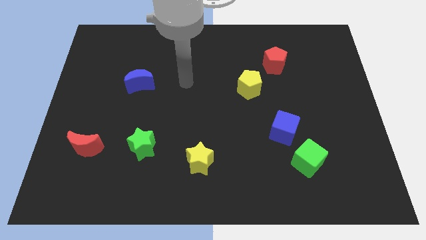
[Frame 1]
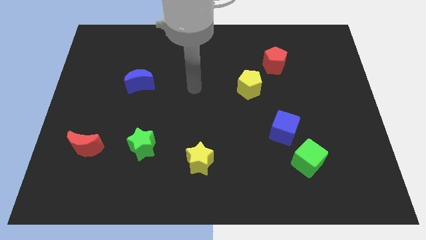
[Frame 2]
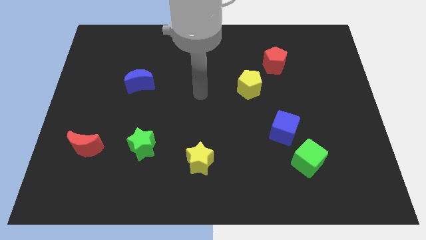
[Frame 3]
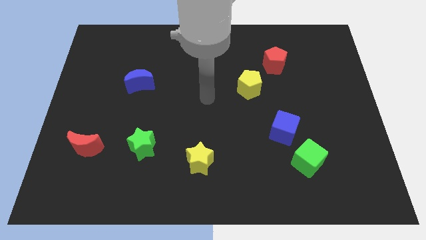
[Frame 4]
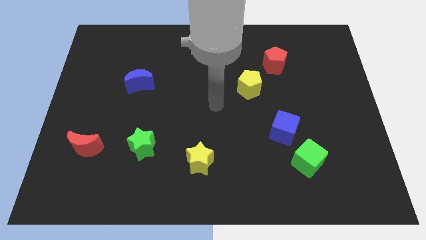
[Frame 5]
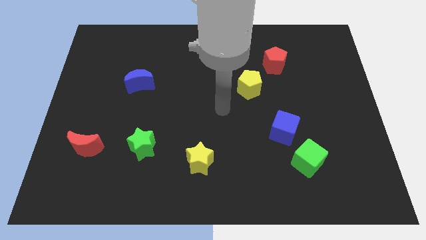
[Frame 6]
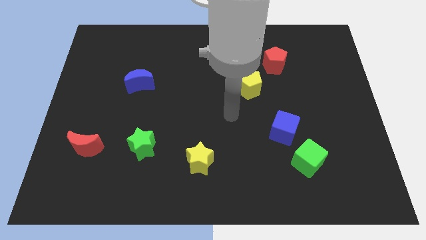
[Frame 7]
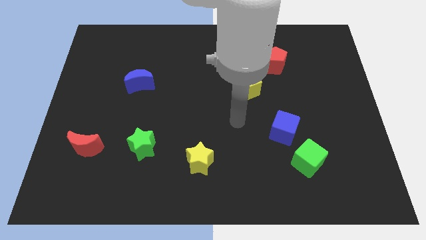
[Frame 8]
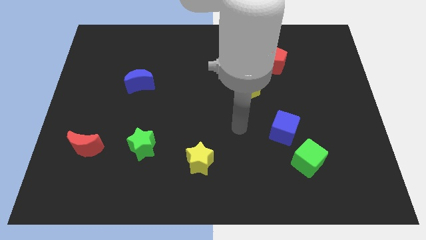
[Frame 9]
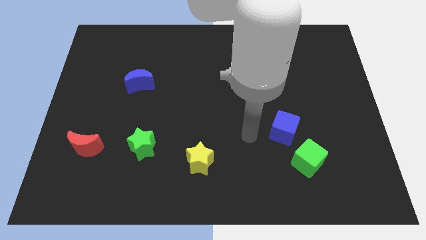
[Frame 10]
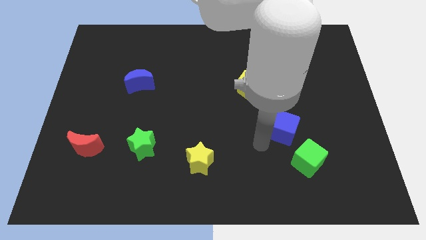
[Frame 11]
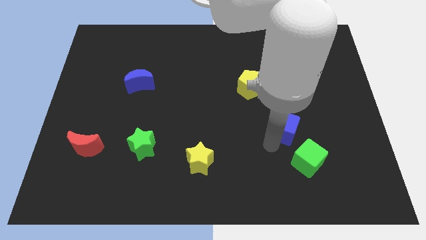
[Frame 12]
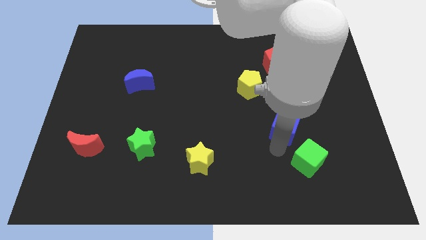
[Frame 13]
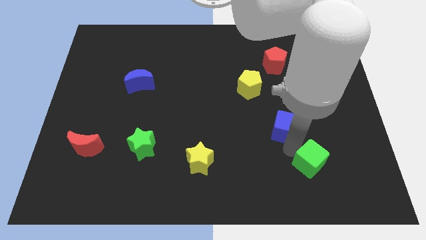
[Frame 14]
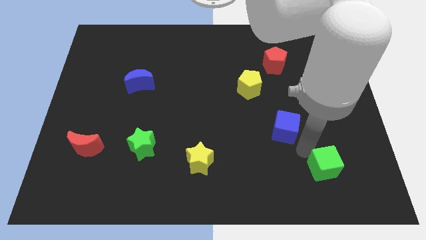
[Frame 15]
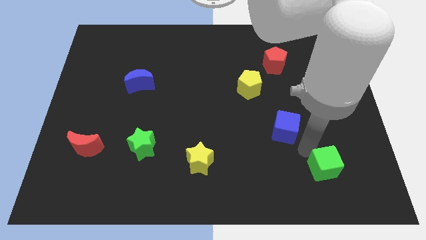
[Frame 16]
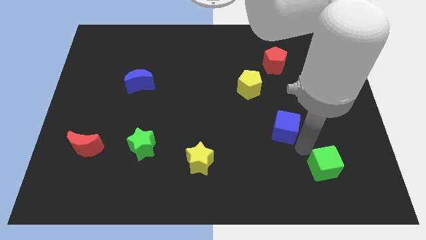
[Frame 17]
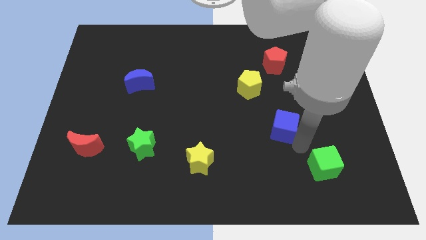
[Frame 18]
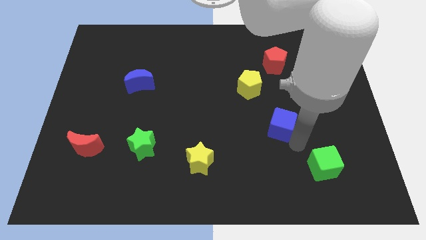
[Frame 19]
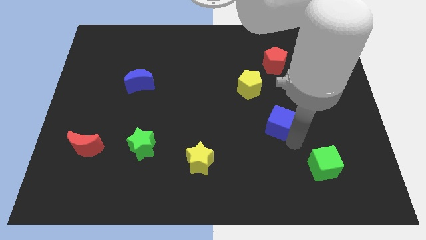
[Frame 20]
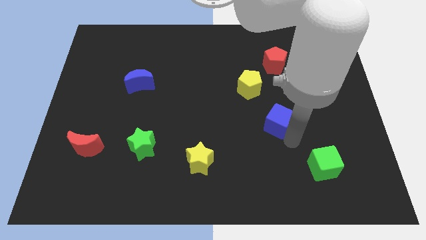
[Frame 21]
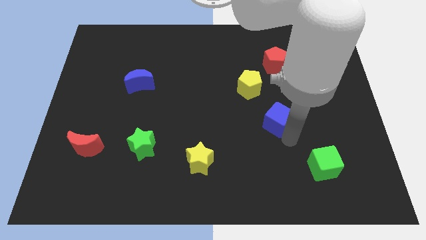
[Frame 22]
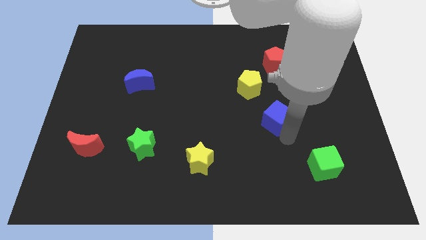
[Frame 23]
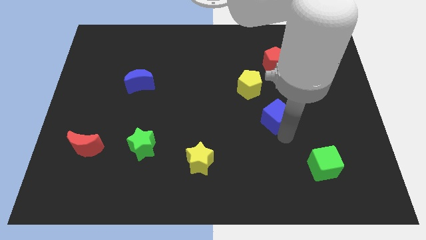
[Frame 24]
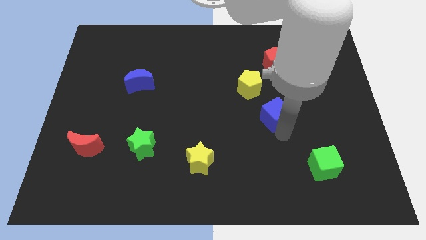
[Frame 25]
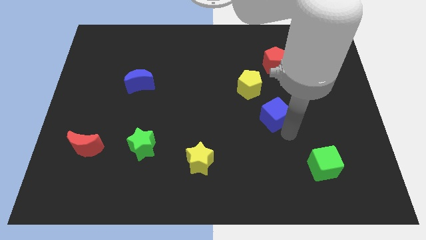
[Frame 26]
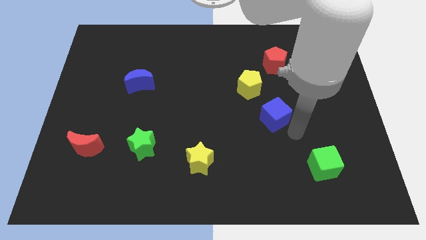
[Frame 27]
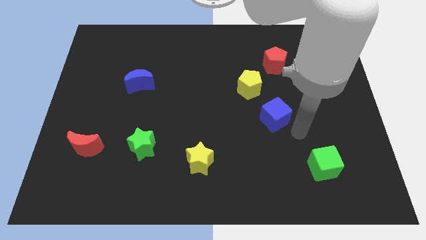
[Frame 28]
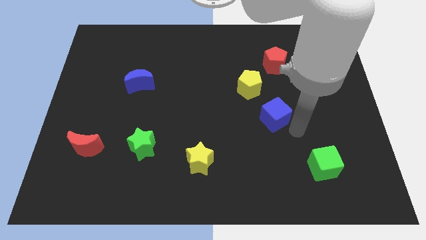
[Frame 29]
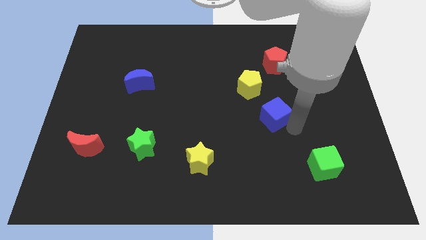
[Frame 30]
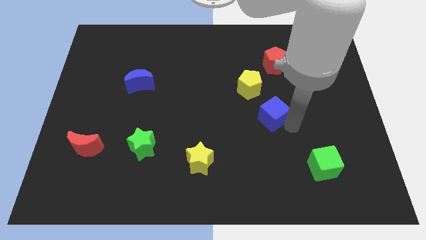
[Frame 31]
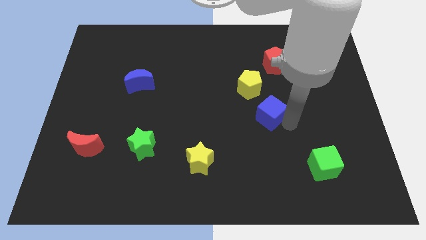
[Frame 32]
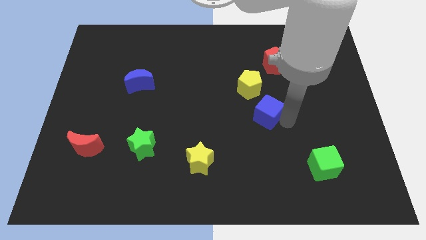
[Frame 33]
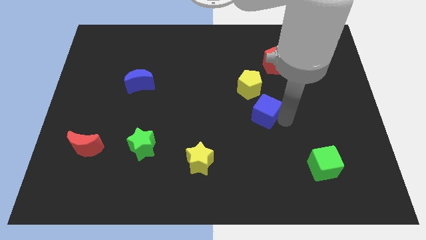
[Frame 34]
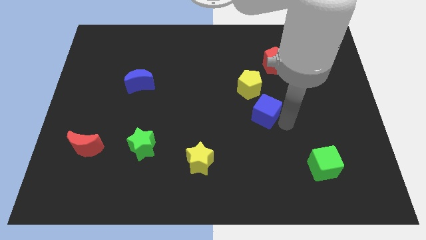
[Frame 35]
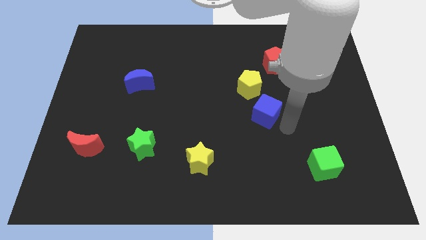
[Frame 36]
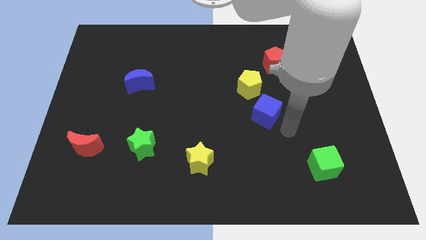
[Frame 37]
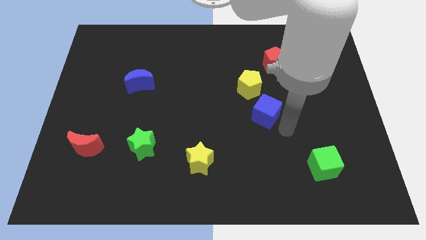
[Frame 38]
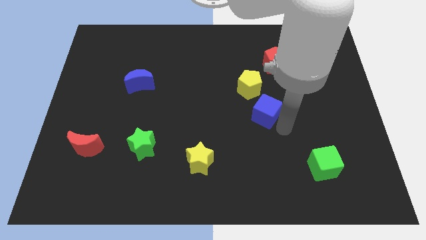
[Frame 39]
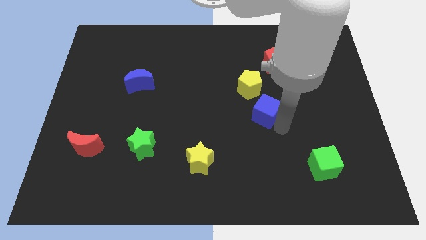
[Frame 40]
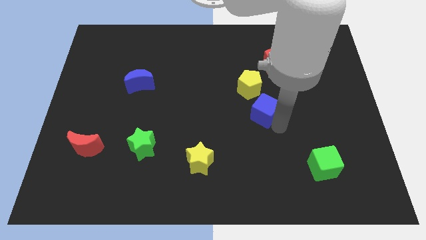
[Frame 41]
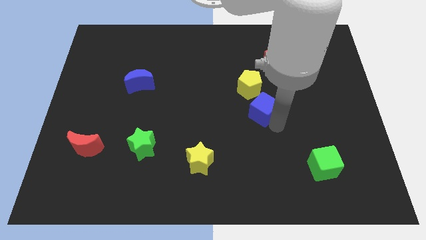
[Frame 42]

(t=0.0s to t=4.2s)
move the blue cube a bit diagonally up and left

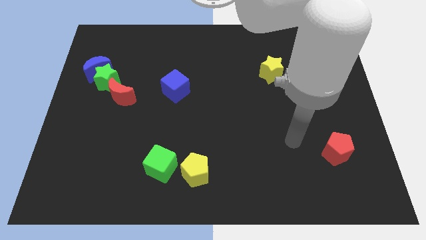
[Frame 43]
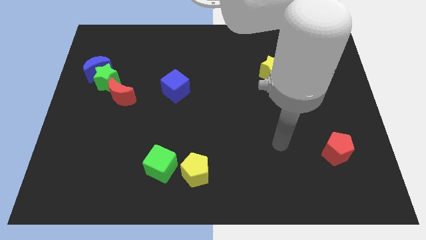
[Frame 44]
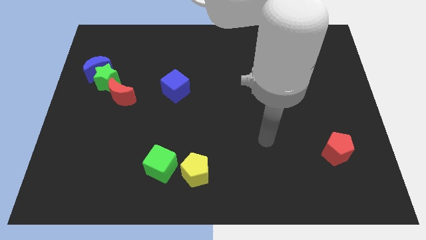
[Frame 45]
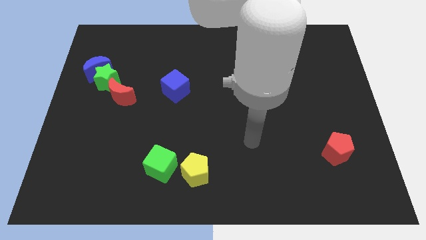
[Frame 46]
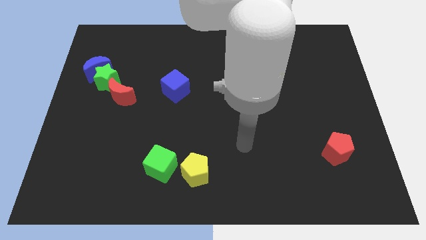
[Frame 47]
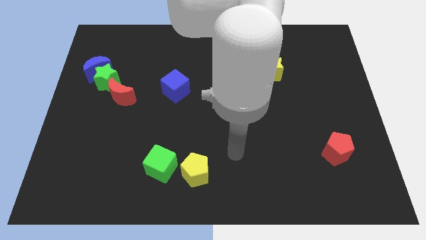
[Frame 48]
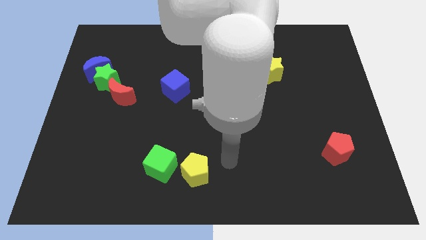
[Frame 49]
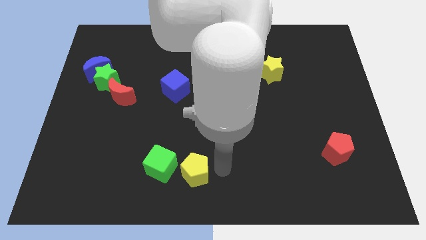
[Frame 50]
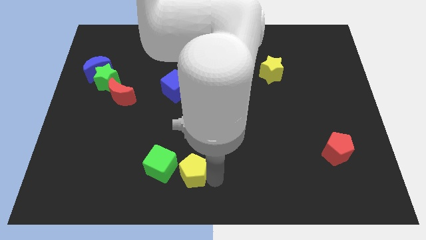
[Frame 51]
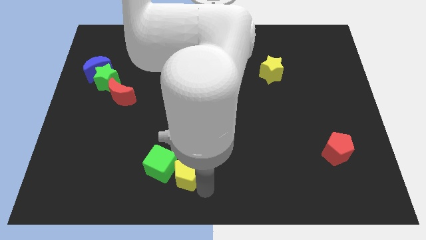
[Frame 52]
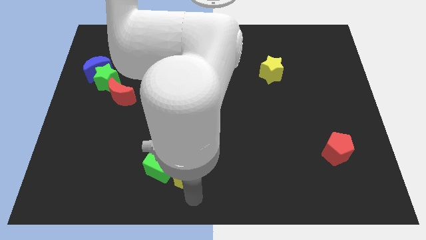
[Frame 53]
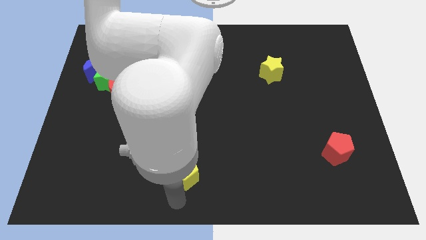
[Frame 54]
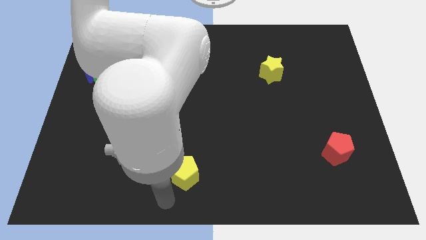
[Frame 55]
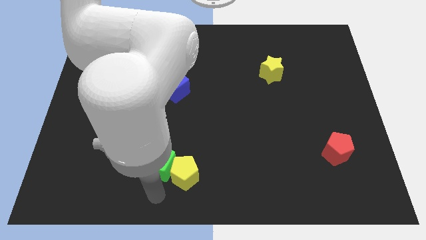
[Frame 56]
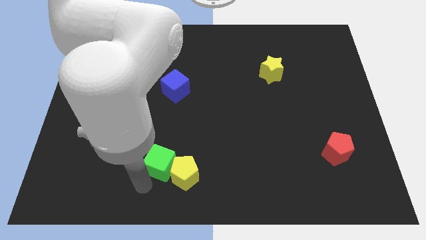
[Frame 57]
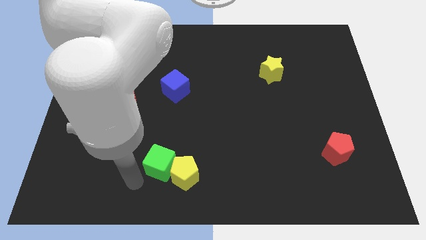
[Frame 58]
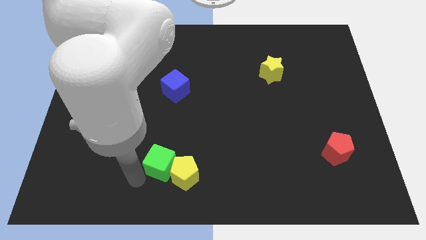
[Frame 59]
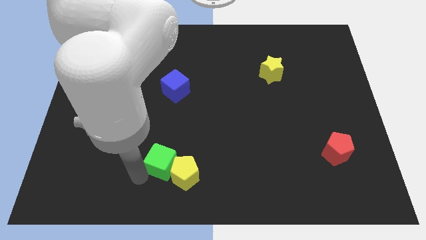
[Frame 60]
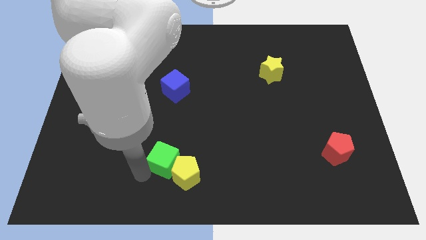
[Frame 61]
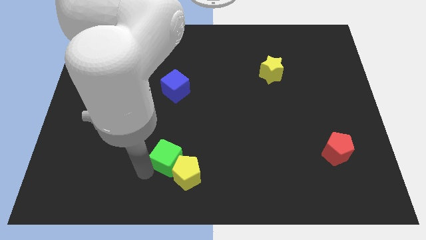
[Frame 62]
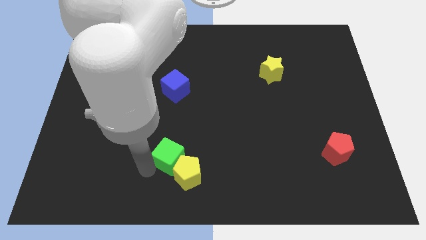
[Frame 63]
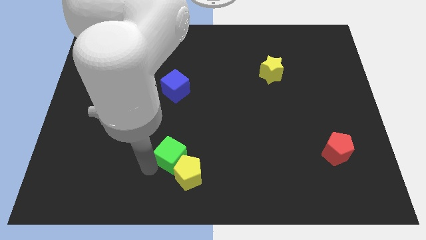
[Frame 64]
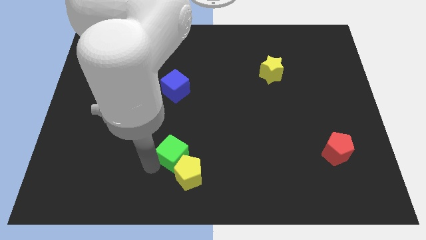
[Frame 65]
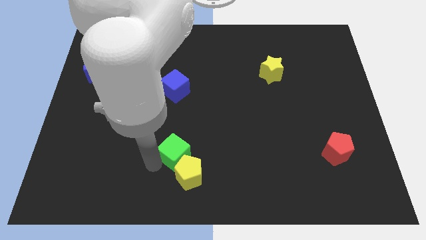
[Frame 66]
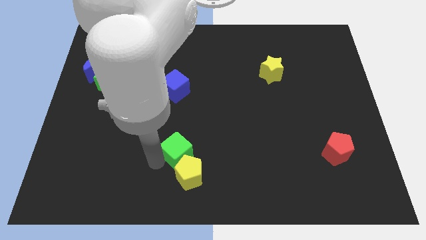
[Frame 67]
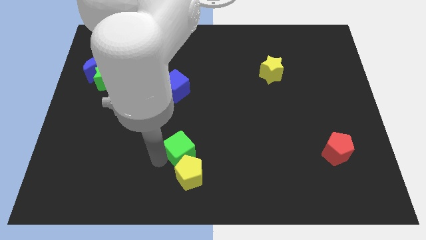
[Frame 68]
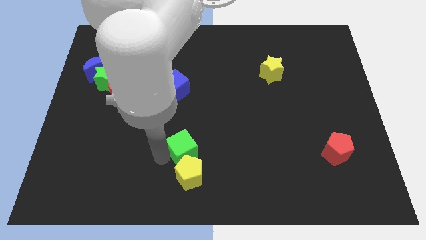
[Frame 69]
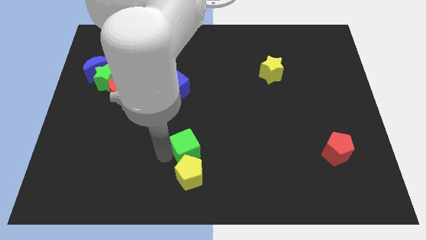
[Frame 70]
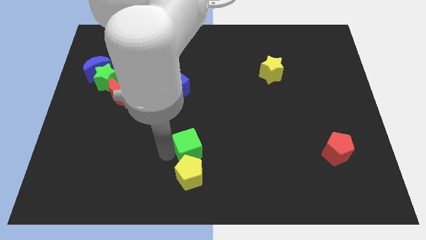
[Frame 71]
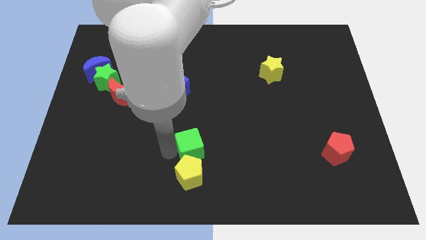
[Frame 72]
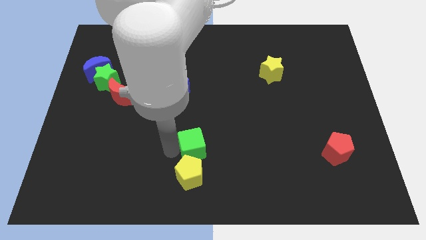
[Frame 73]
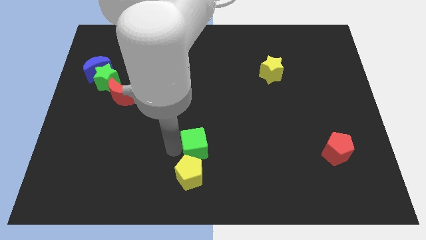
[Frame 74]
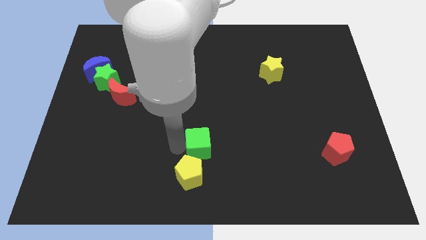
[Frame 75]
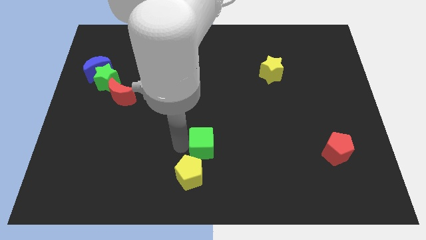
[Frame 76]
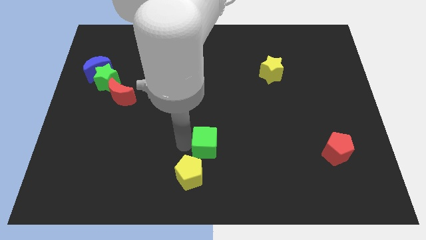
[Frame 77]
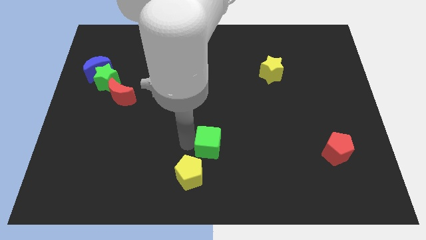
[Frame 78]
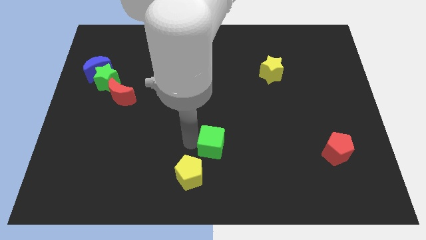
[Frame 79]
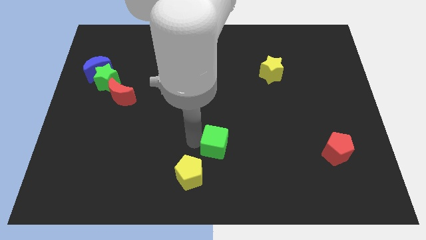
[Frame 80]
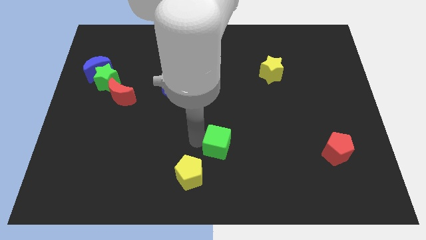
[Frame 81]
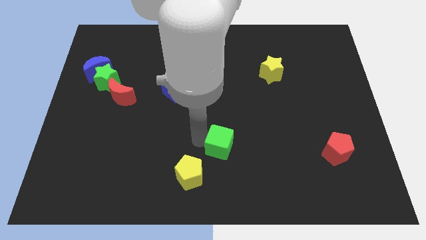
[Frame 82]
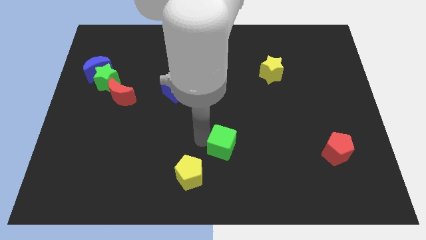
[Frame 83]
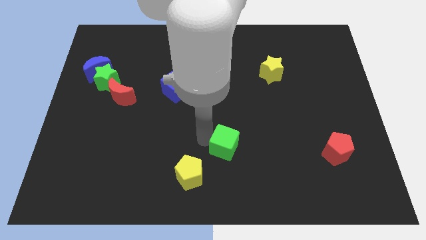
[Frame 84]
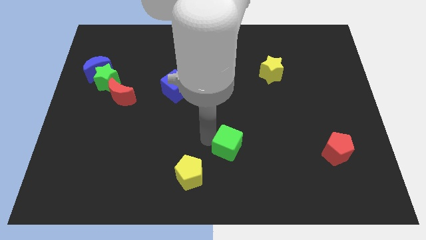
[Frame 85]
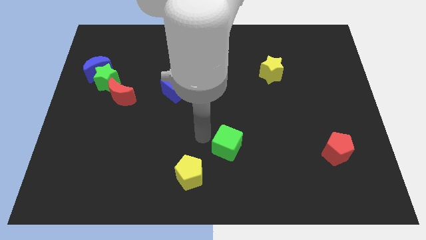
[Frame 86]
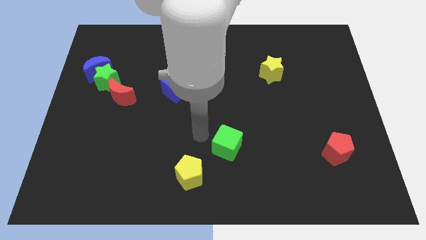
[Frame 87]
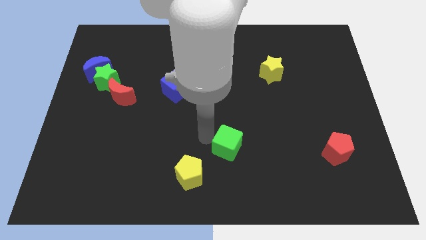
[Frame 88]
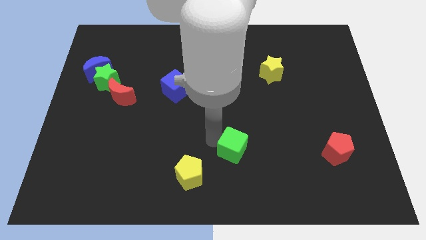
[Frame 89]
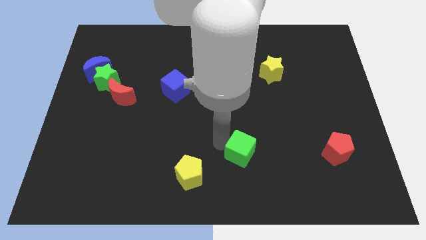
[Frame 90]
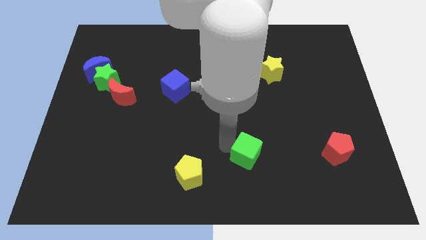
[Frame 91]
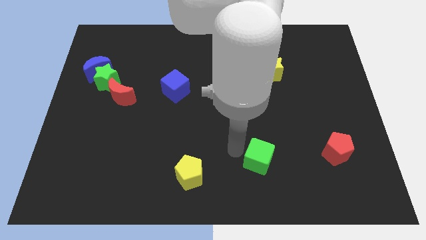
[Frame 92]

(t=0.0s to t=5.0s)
push the green cube to the right
